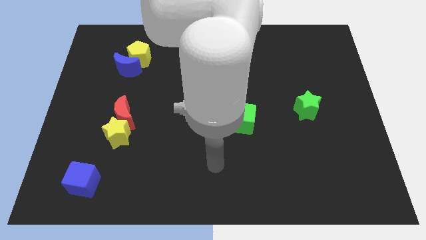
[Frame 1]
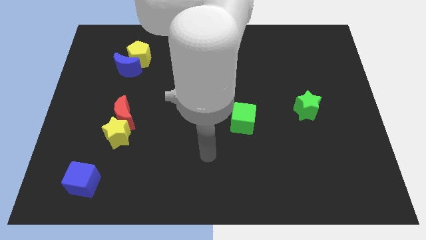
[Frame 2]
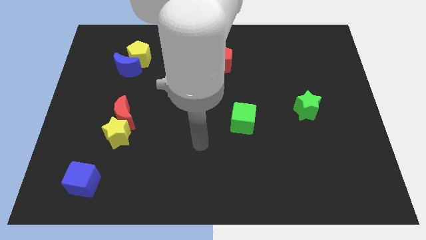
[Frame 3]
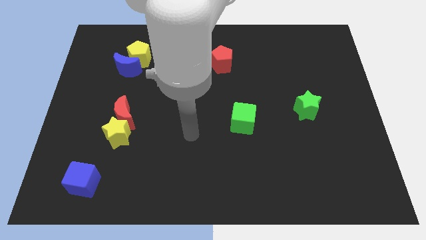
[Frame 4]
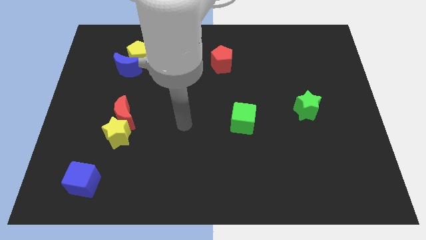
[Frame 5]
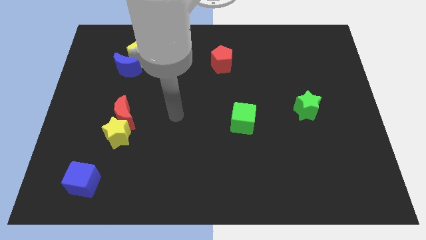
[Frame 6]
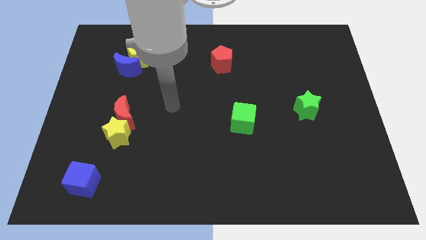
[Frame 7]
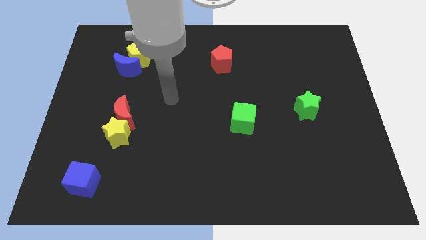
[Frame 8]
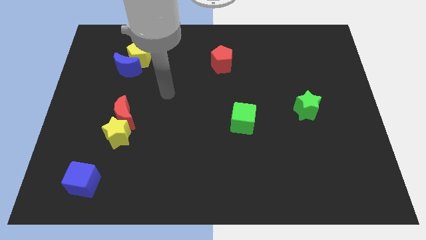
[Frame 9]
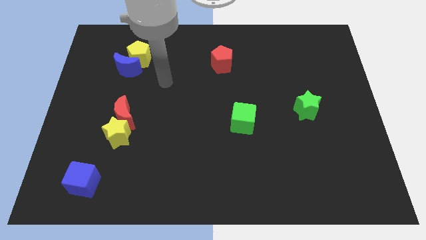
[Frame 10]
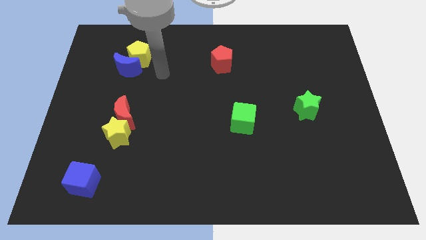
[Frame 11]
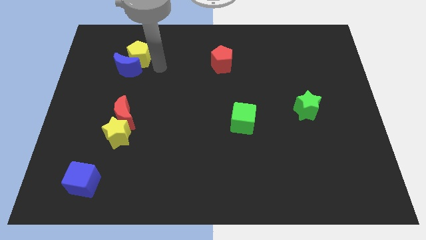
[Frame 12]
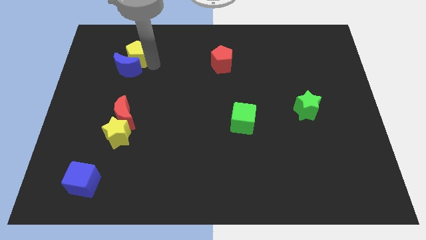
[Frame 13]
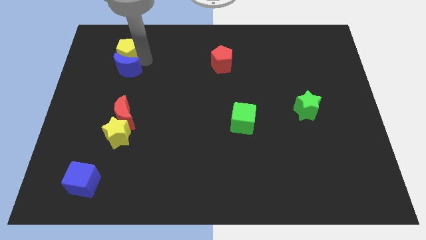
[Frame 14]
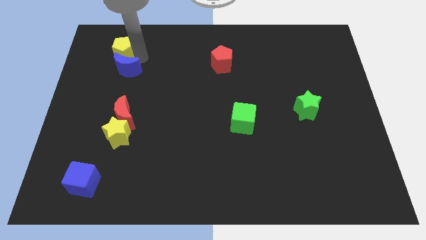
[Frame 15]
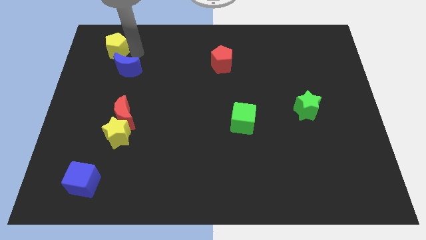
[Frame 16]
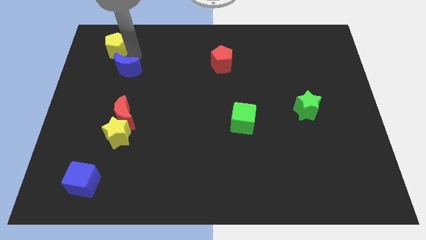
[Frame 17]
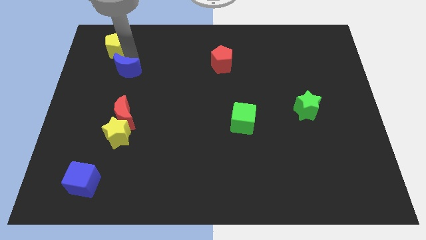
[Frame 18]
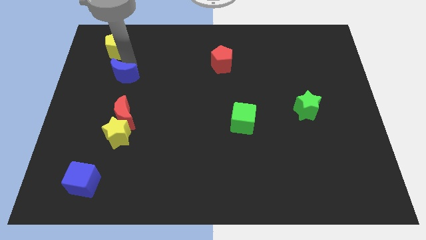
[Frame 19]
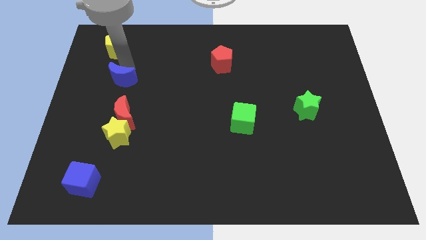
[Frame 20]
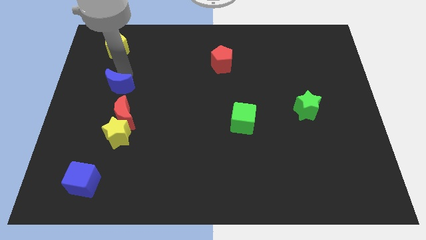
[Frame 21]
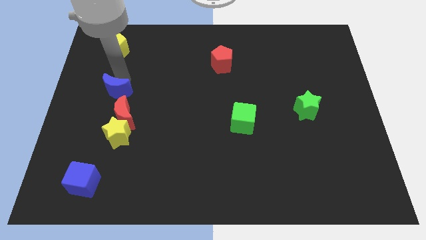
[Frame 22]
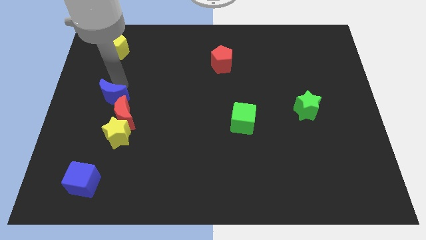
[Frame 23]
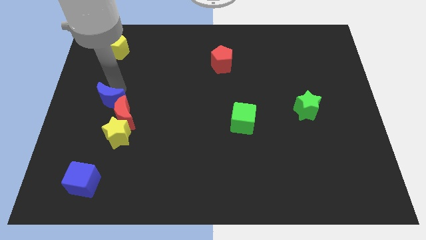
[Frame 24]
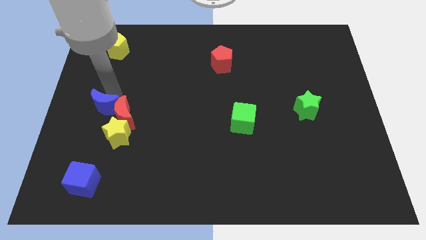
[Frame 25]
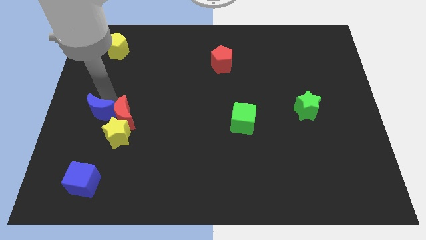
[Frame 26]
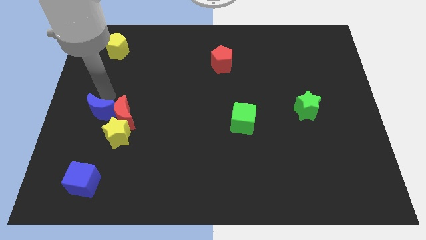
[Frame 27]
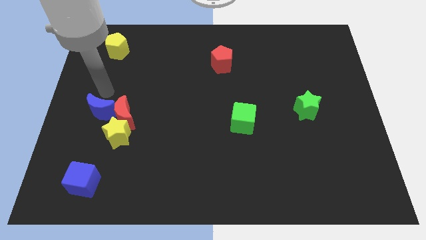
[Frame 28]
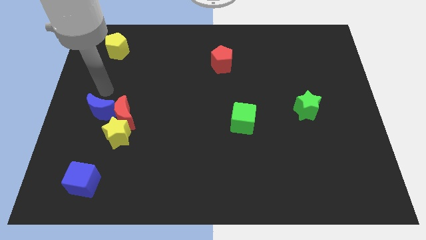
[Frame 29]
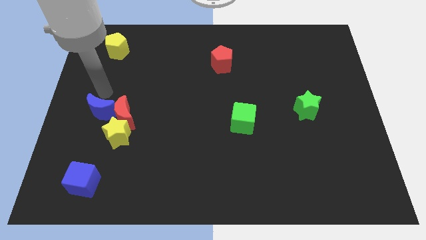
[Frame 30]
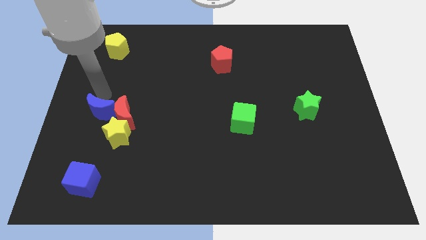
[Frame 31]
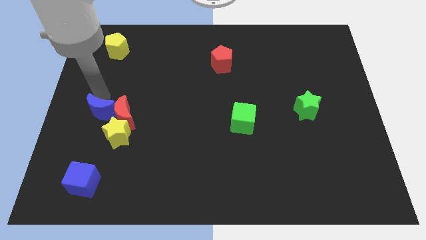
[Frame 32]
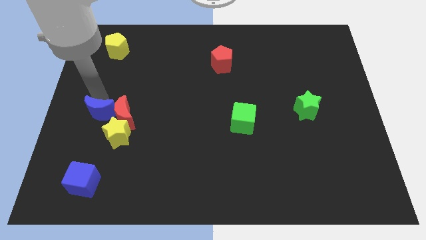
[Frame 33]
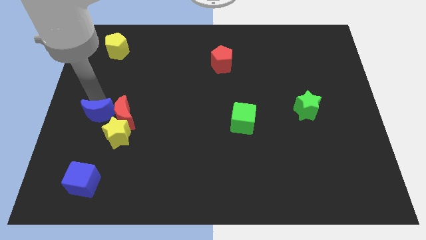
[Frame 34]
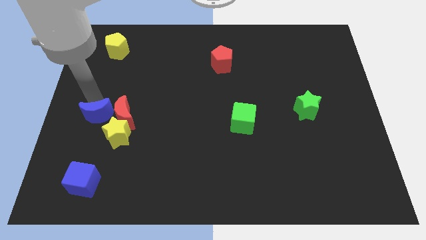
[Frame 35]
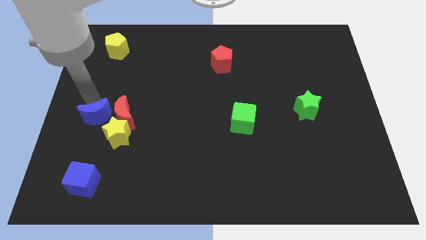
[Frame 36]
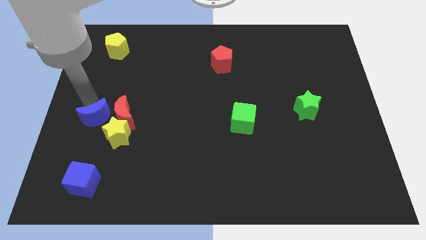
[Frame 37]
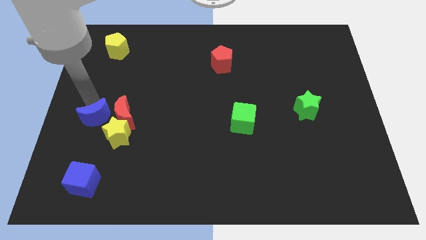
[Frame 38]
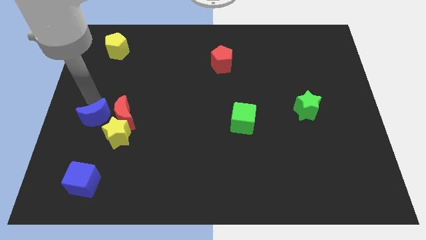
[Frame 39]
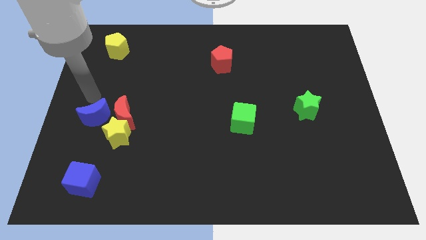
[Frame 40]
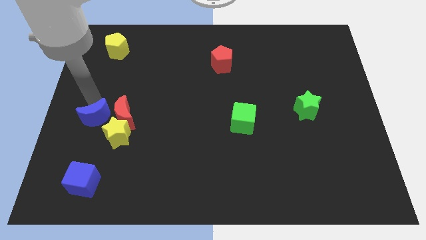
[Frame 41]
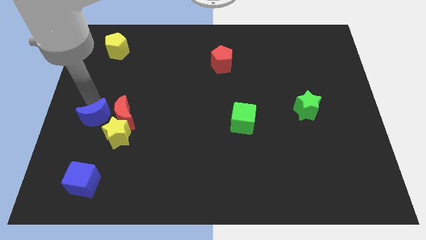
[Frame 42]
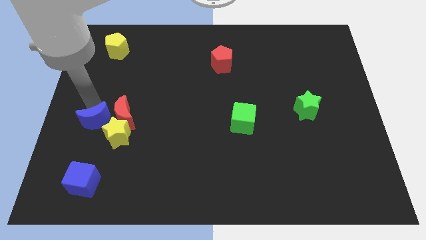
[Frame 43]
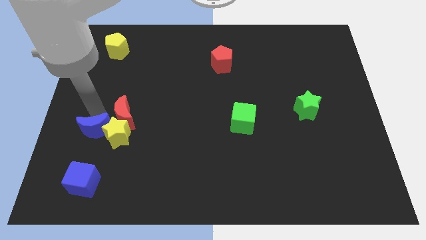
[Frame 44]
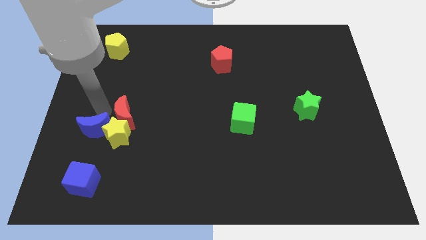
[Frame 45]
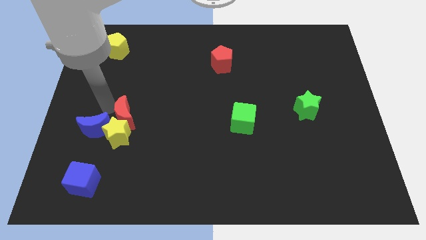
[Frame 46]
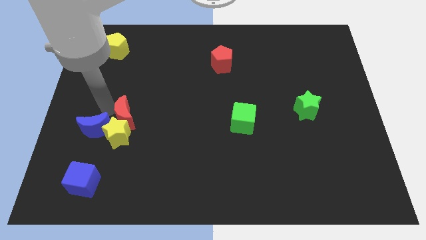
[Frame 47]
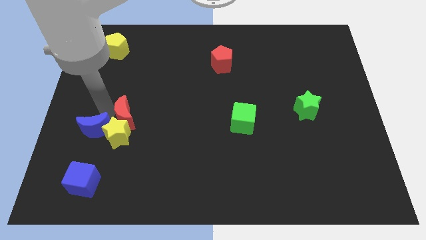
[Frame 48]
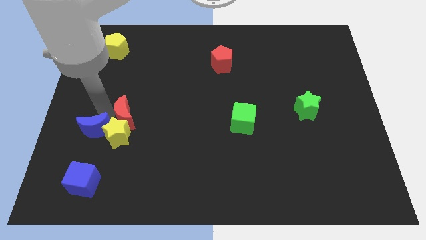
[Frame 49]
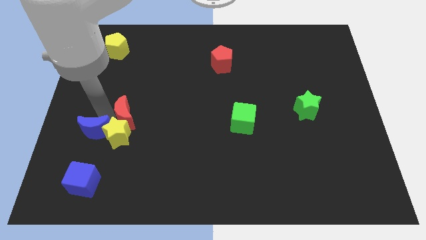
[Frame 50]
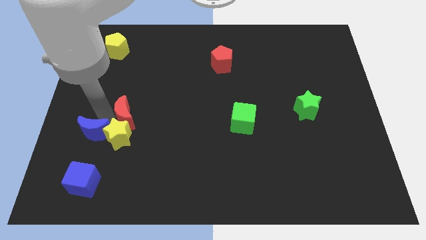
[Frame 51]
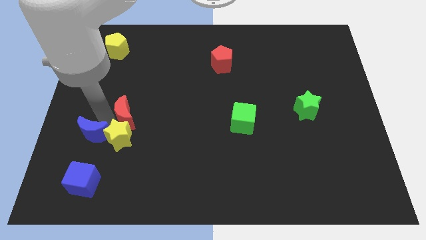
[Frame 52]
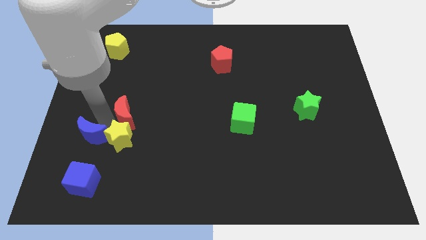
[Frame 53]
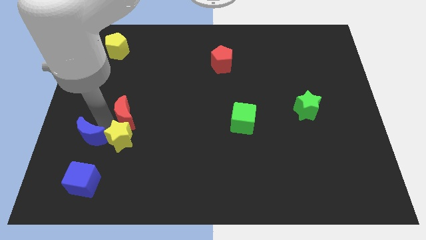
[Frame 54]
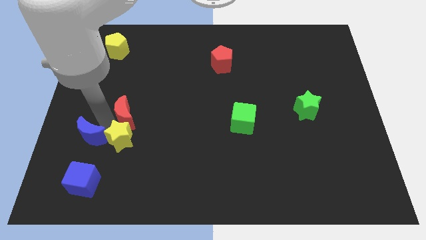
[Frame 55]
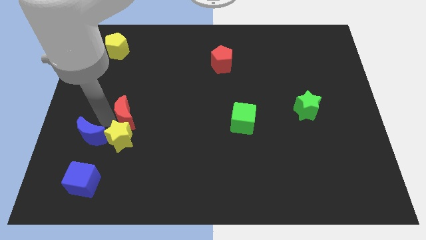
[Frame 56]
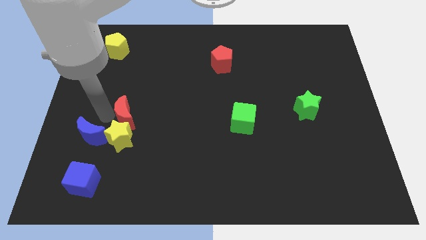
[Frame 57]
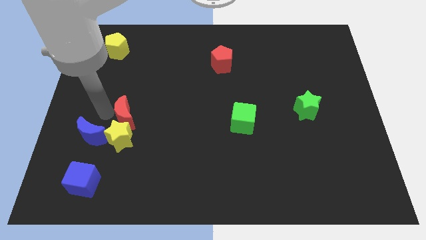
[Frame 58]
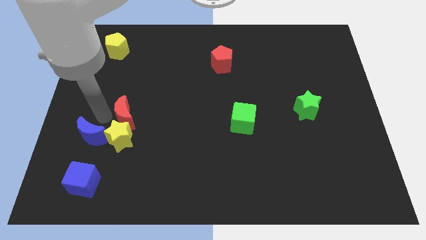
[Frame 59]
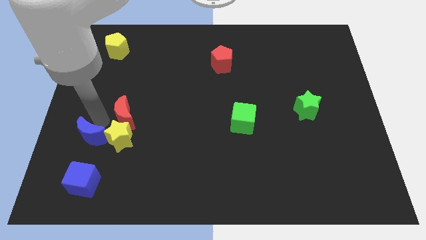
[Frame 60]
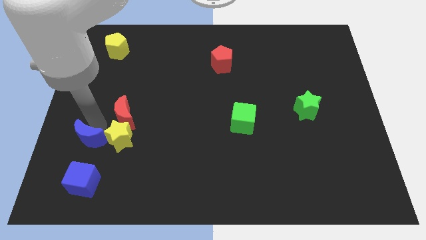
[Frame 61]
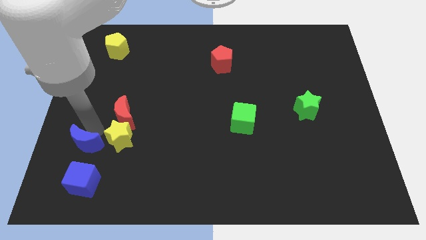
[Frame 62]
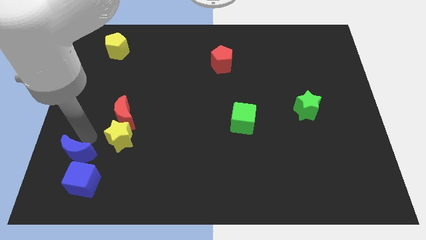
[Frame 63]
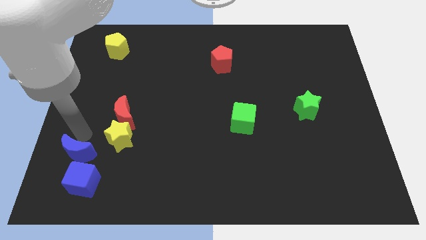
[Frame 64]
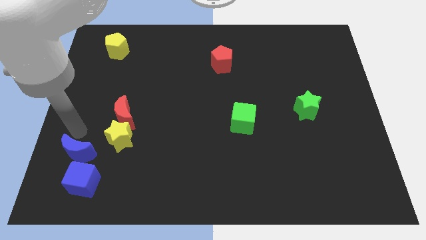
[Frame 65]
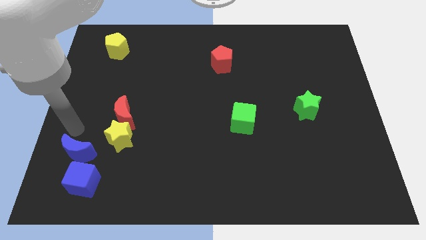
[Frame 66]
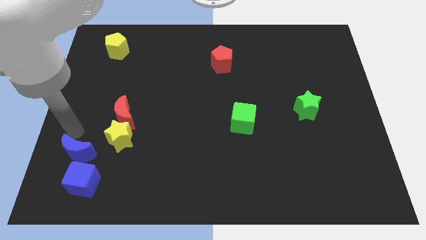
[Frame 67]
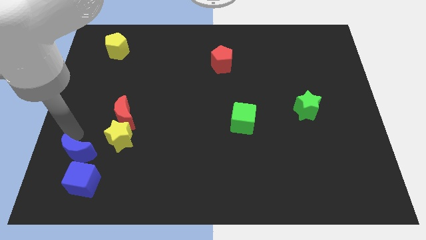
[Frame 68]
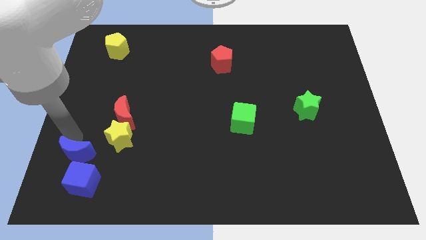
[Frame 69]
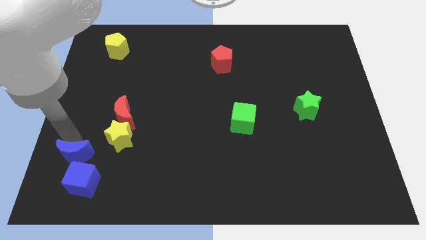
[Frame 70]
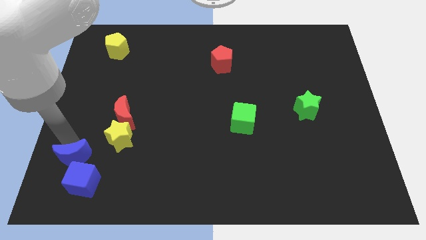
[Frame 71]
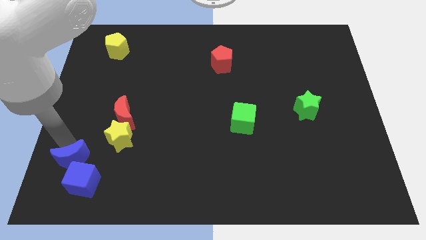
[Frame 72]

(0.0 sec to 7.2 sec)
move the blue moon next to the blue cube
